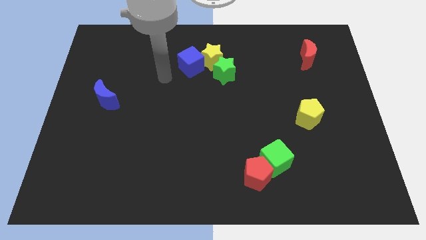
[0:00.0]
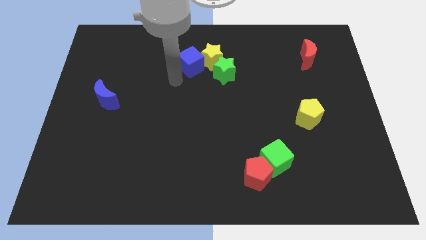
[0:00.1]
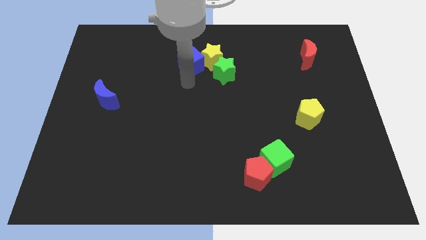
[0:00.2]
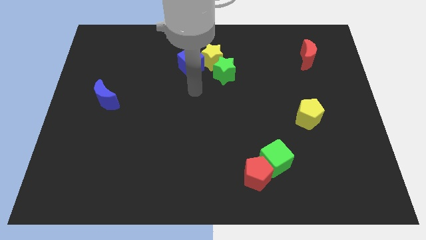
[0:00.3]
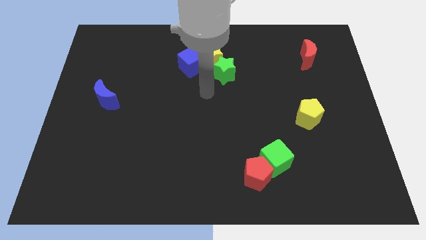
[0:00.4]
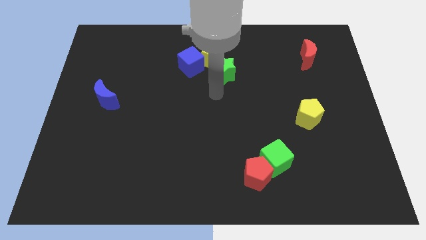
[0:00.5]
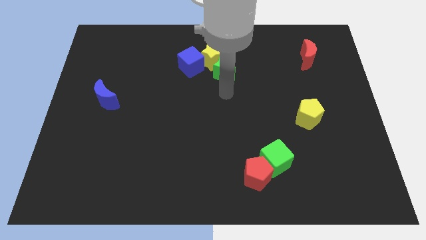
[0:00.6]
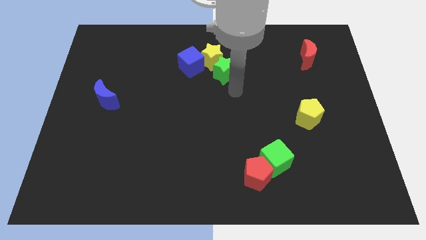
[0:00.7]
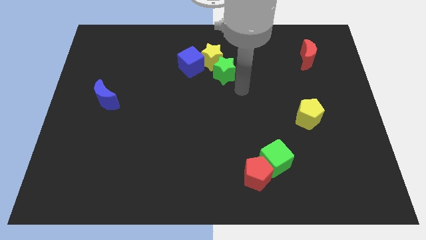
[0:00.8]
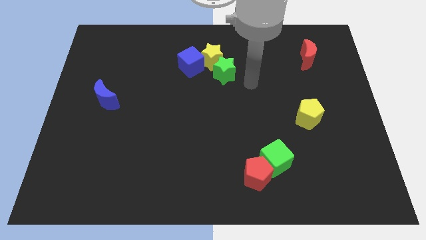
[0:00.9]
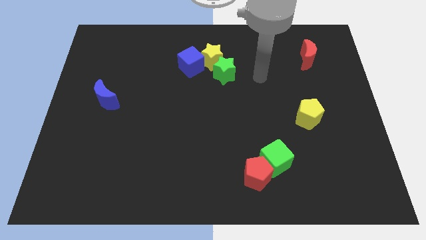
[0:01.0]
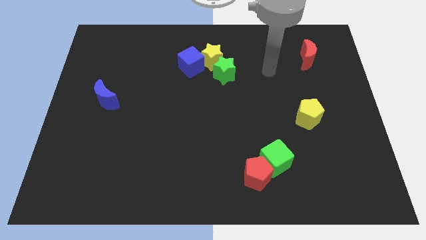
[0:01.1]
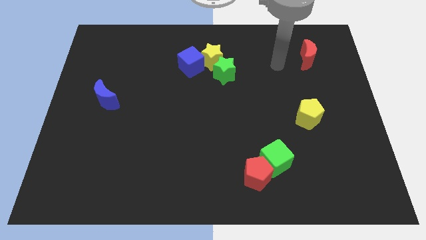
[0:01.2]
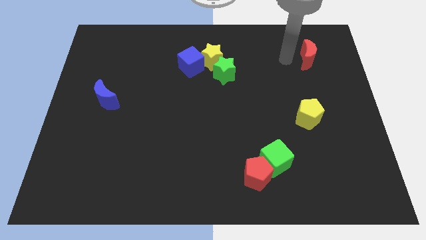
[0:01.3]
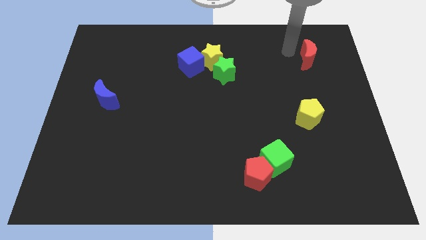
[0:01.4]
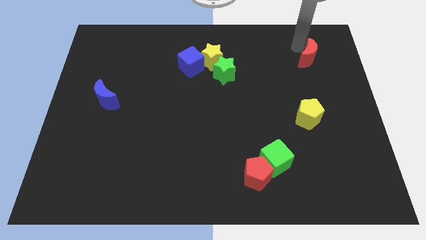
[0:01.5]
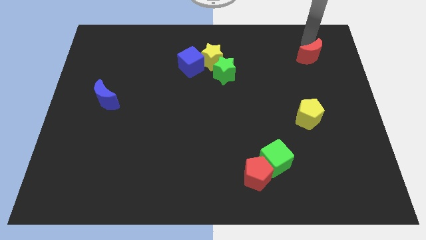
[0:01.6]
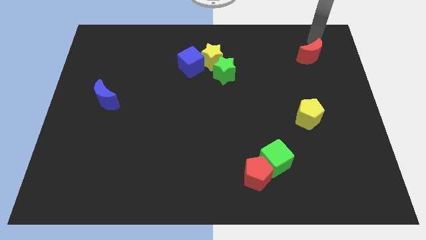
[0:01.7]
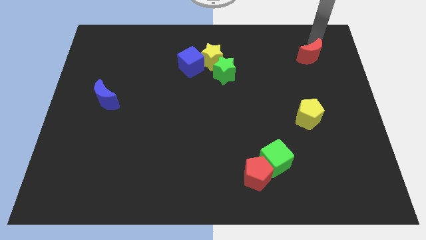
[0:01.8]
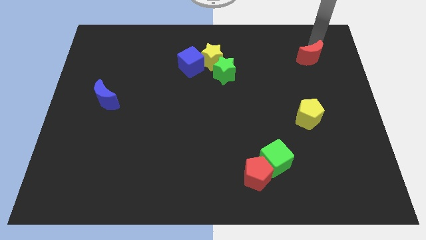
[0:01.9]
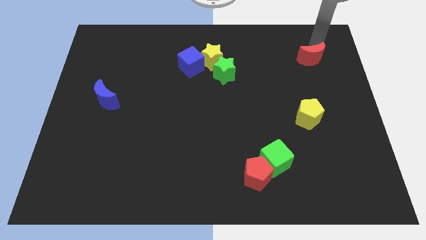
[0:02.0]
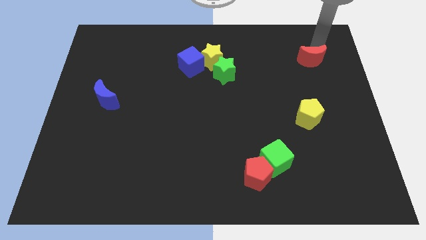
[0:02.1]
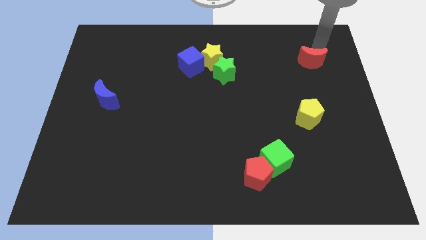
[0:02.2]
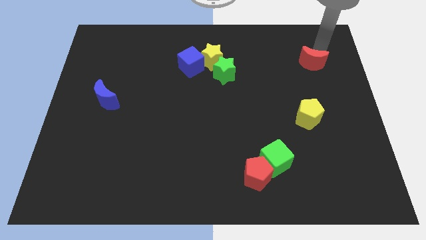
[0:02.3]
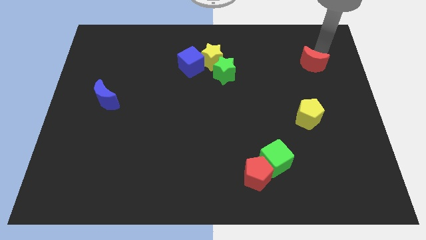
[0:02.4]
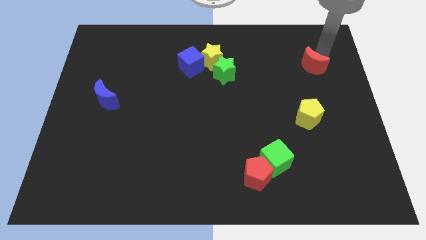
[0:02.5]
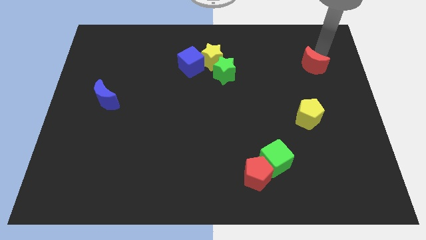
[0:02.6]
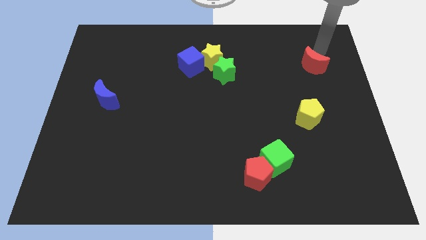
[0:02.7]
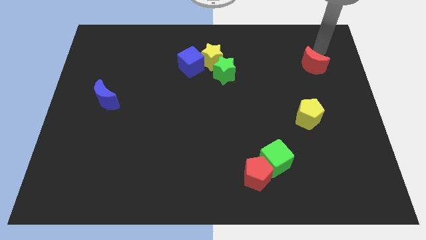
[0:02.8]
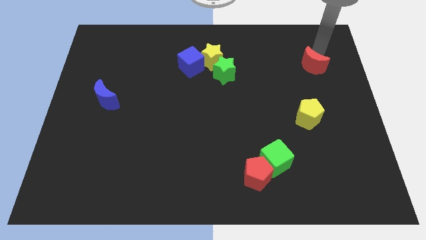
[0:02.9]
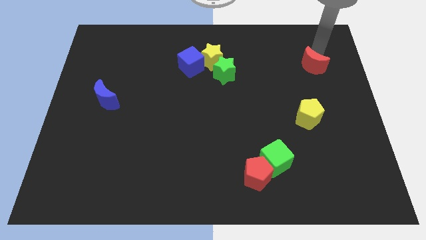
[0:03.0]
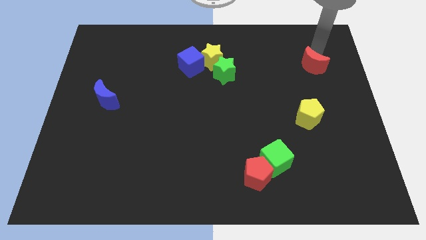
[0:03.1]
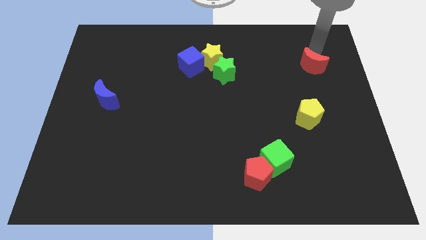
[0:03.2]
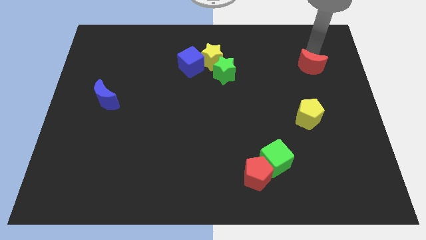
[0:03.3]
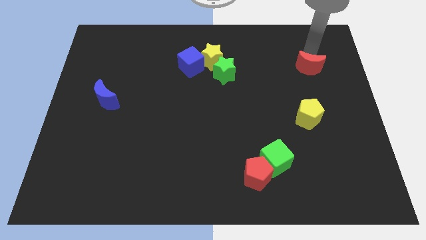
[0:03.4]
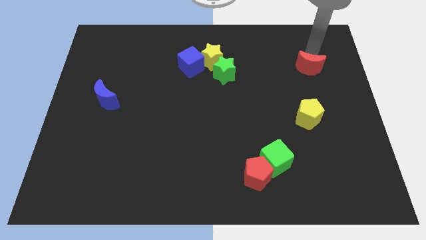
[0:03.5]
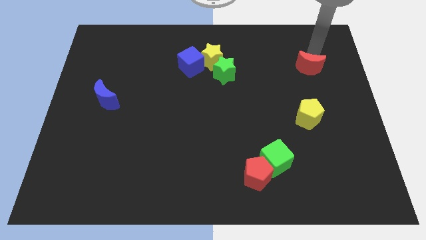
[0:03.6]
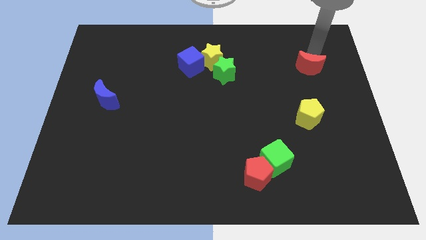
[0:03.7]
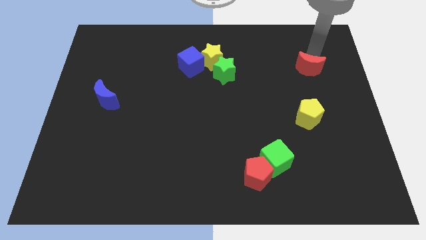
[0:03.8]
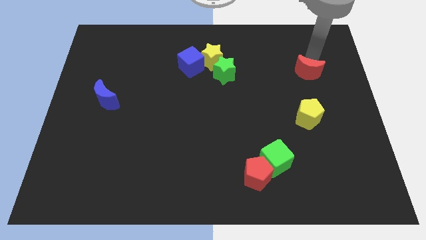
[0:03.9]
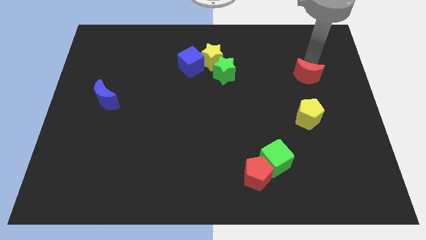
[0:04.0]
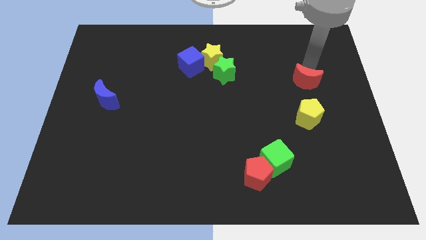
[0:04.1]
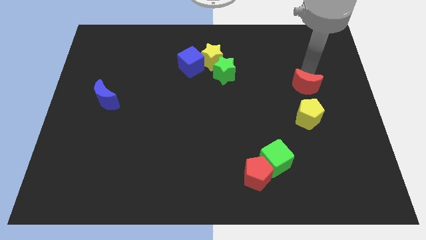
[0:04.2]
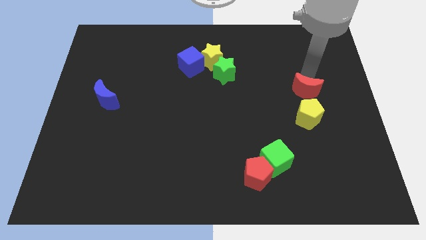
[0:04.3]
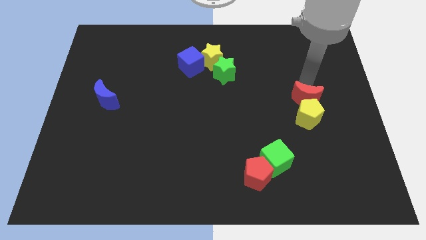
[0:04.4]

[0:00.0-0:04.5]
put the red moon to the yellow pentagon

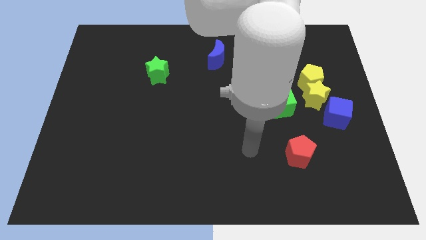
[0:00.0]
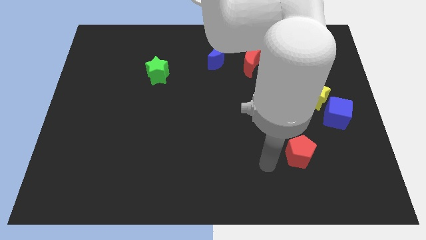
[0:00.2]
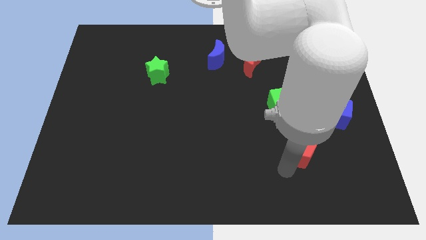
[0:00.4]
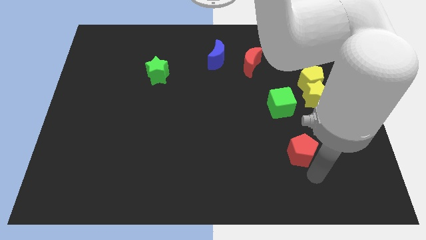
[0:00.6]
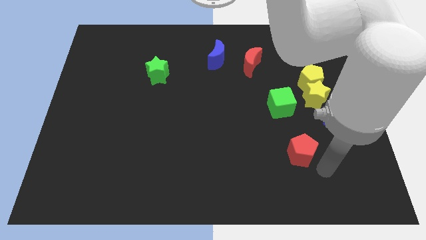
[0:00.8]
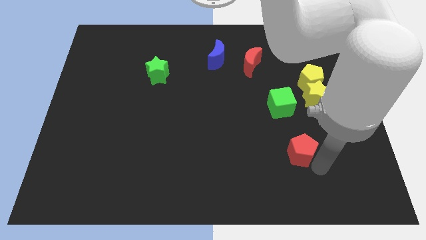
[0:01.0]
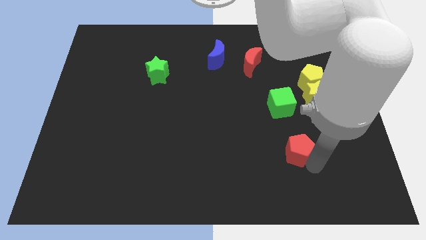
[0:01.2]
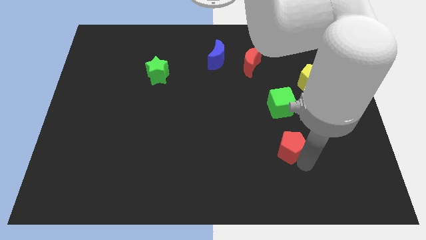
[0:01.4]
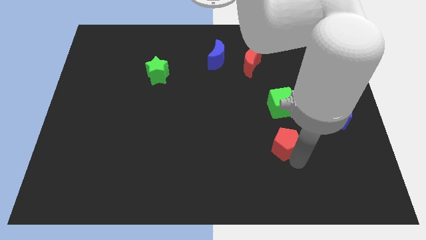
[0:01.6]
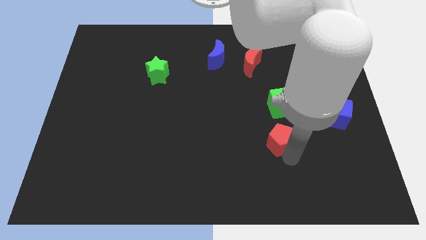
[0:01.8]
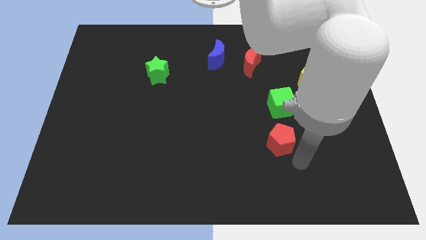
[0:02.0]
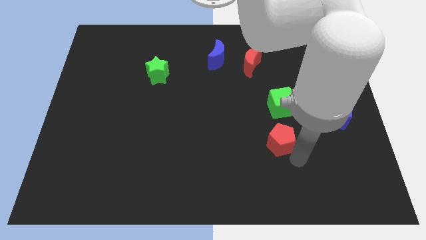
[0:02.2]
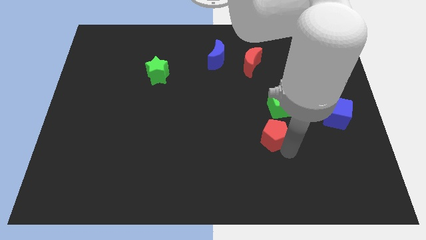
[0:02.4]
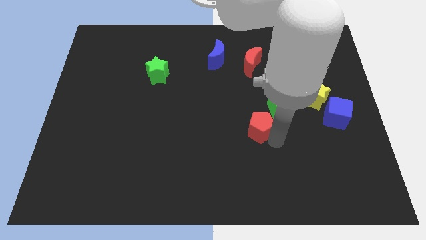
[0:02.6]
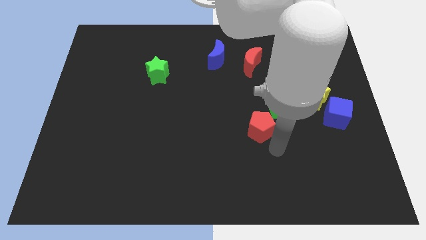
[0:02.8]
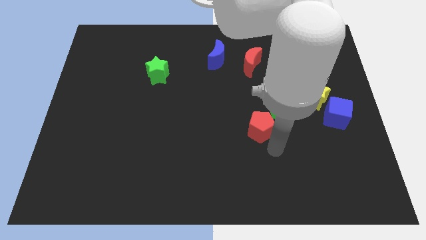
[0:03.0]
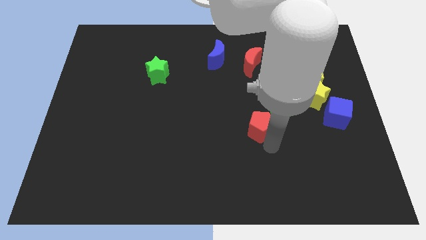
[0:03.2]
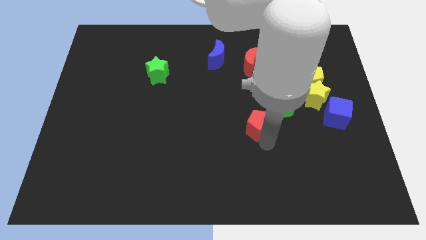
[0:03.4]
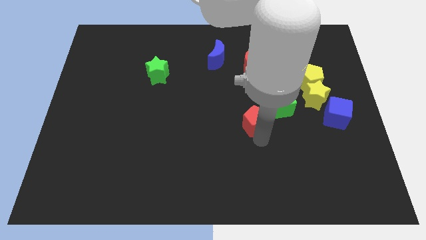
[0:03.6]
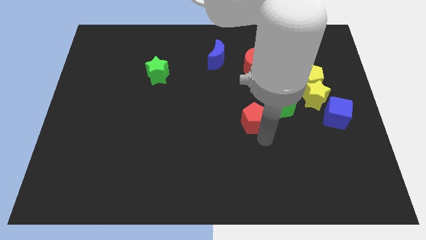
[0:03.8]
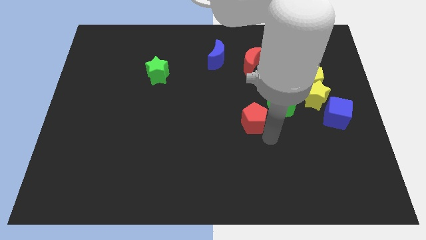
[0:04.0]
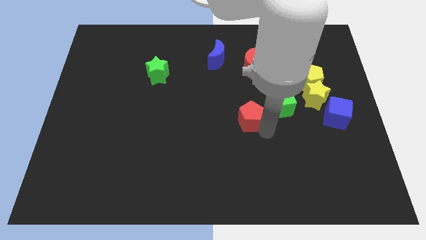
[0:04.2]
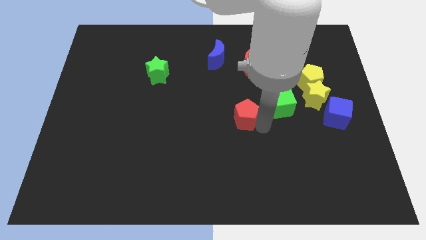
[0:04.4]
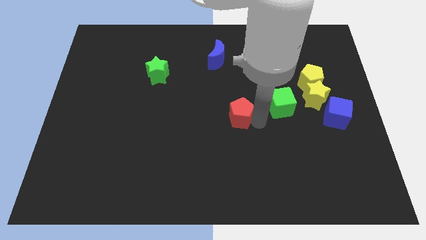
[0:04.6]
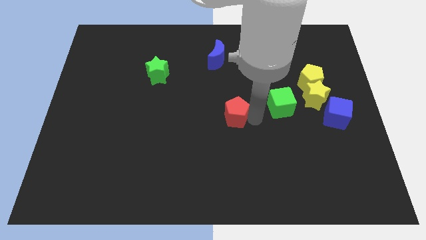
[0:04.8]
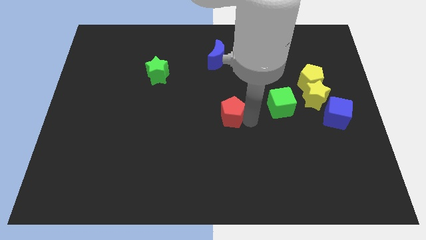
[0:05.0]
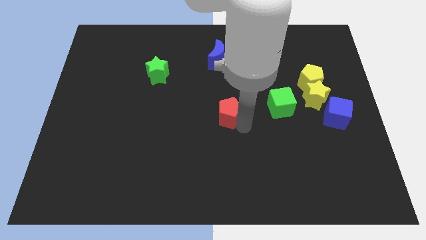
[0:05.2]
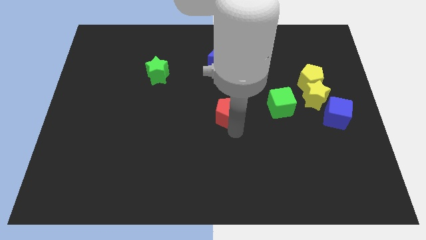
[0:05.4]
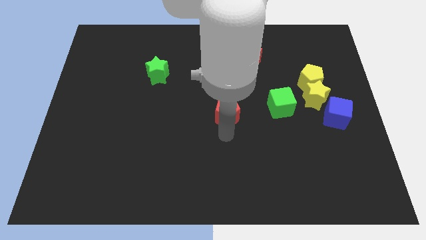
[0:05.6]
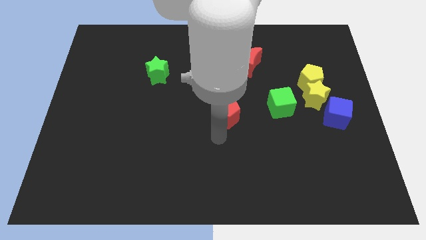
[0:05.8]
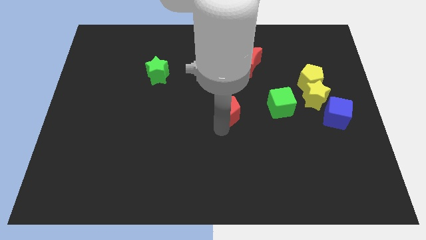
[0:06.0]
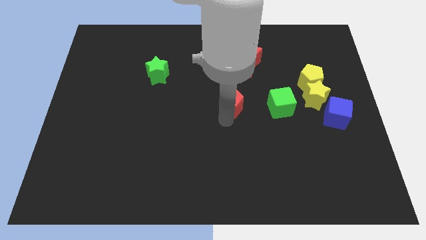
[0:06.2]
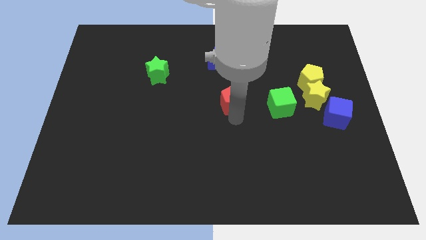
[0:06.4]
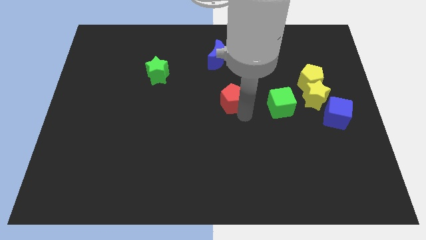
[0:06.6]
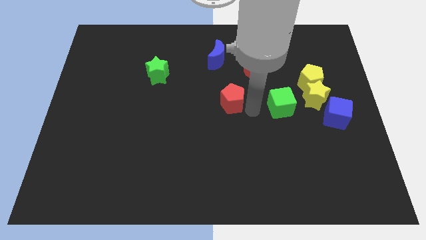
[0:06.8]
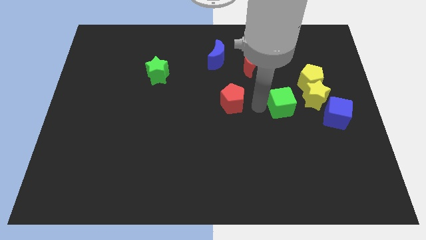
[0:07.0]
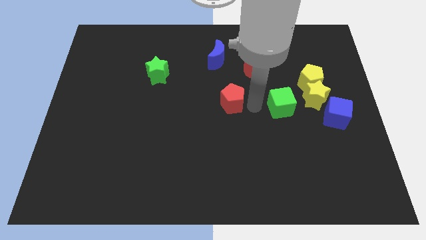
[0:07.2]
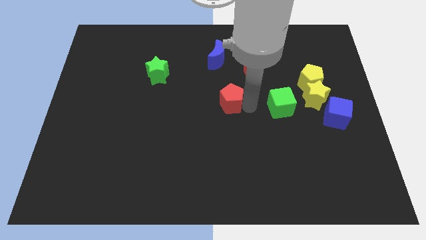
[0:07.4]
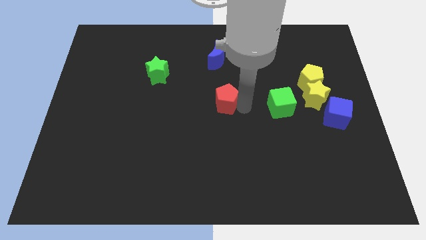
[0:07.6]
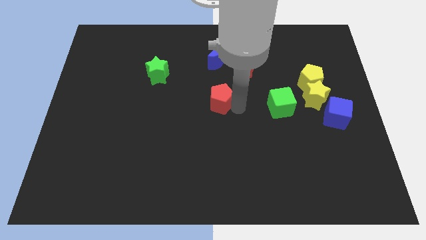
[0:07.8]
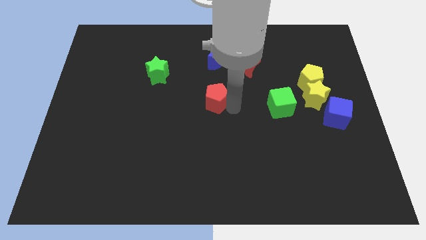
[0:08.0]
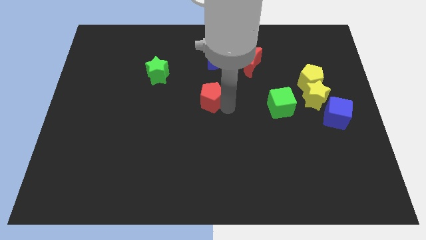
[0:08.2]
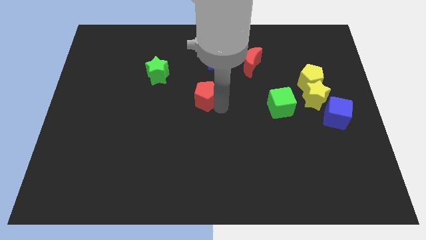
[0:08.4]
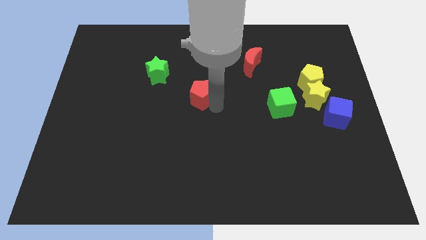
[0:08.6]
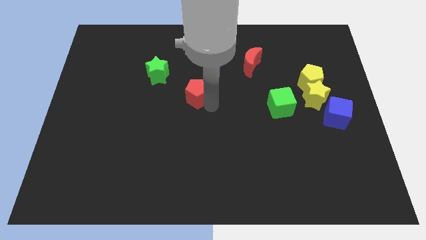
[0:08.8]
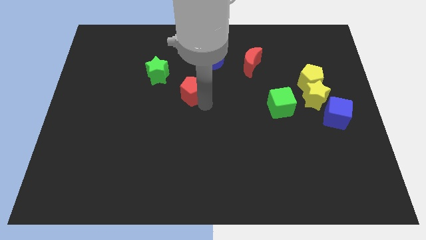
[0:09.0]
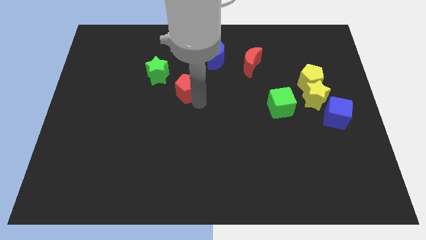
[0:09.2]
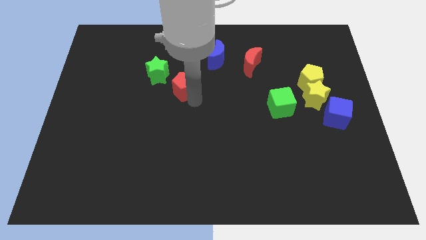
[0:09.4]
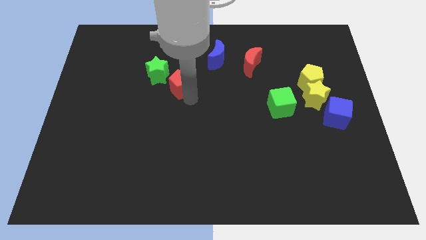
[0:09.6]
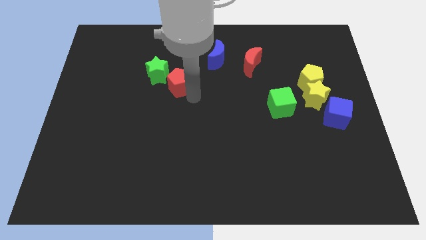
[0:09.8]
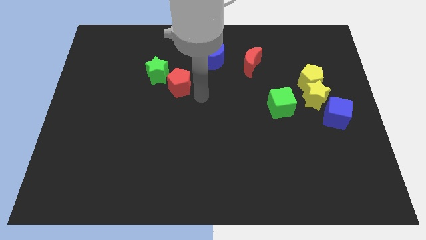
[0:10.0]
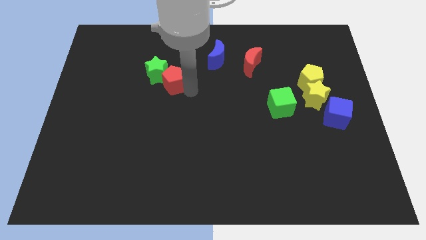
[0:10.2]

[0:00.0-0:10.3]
slide the red pentagon to the green star
